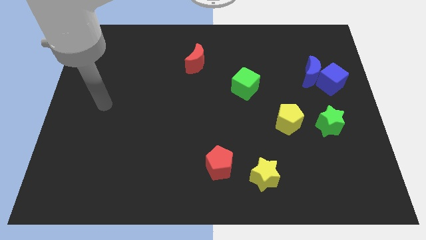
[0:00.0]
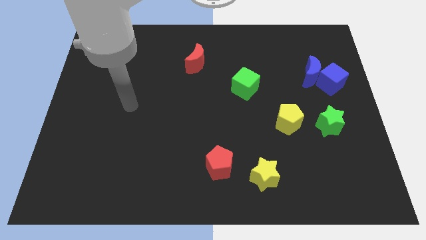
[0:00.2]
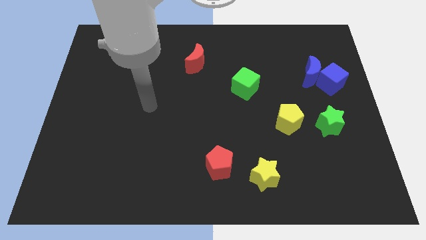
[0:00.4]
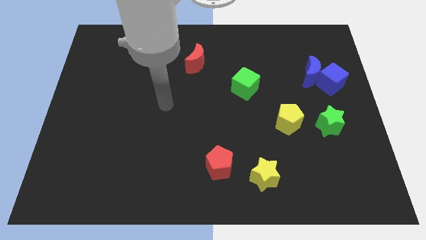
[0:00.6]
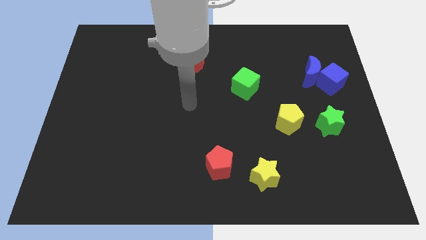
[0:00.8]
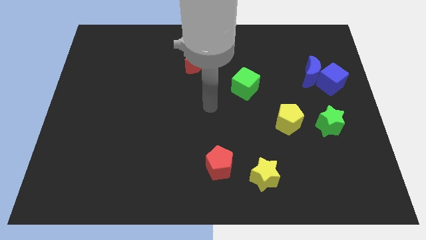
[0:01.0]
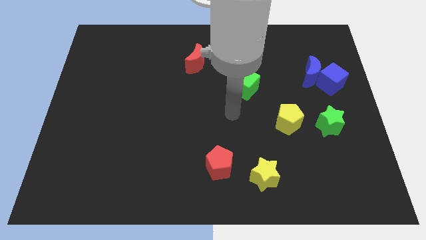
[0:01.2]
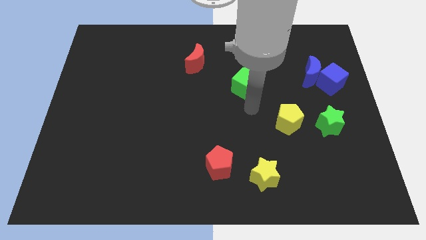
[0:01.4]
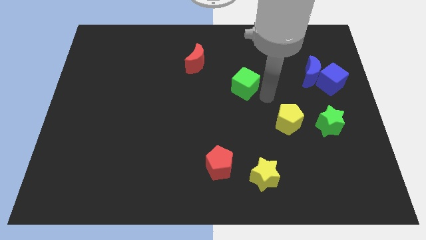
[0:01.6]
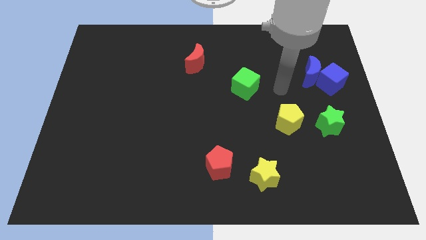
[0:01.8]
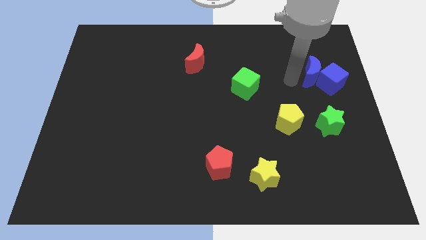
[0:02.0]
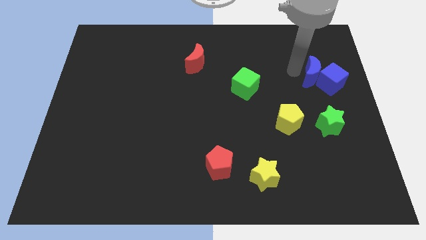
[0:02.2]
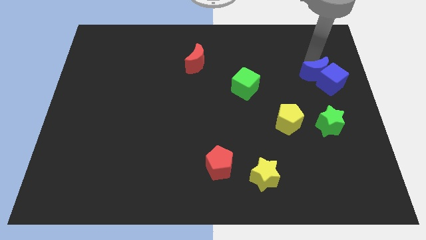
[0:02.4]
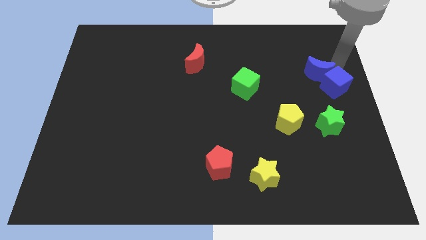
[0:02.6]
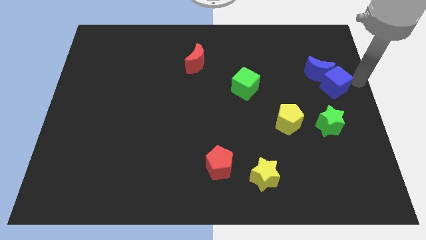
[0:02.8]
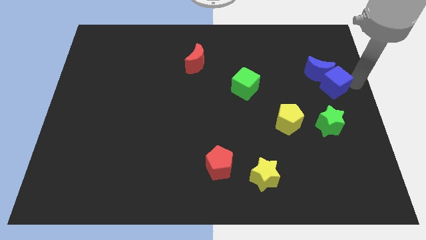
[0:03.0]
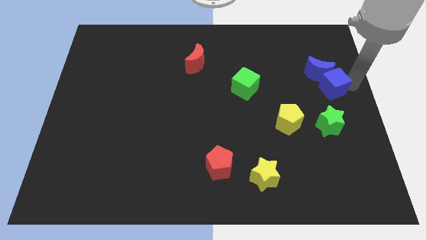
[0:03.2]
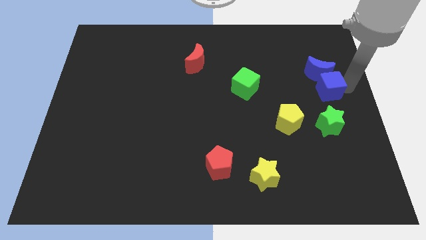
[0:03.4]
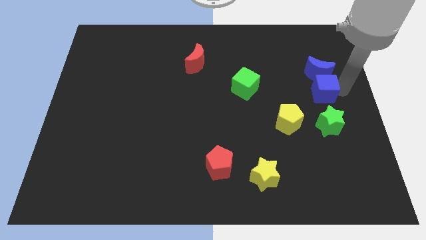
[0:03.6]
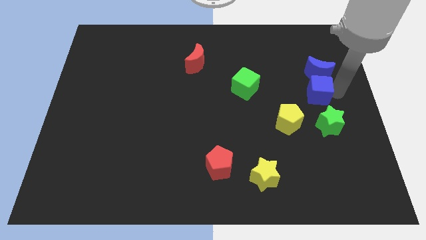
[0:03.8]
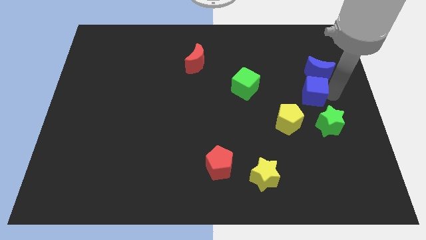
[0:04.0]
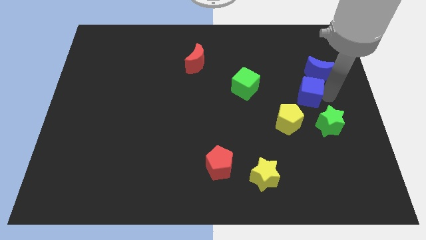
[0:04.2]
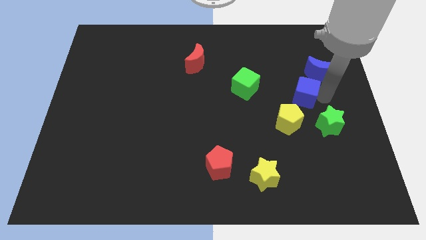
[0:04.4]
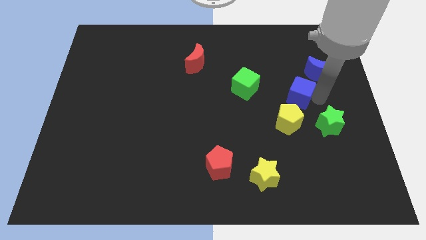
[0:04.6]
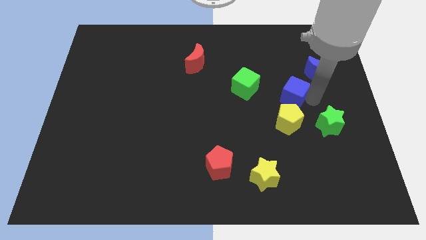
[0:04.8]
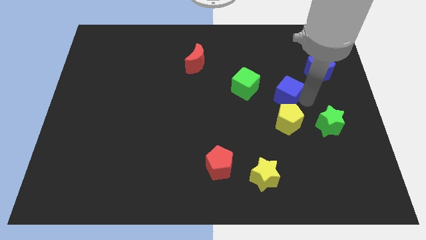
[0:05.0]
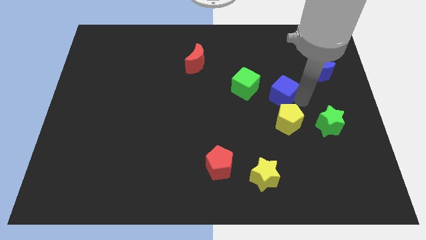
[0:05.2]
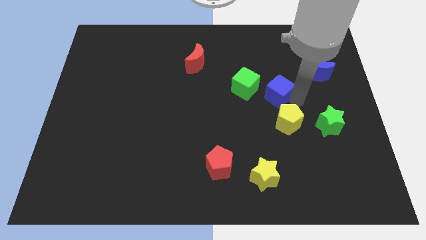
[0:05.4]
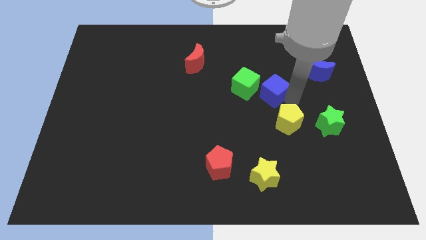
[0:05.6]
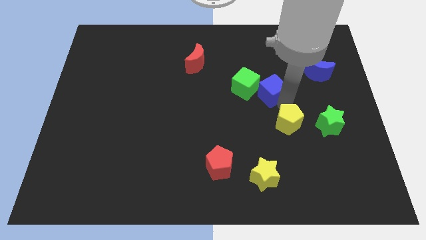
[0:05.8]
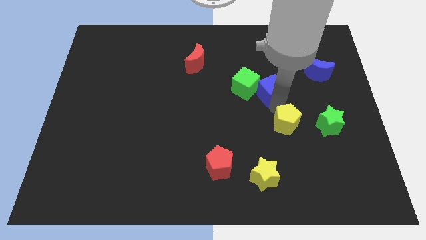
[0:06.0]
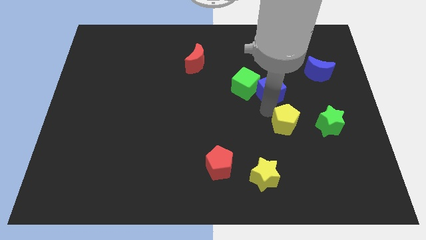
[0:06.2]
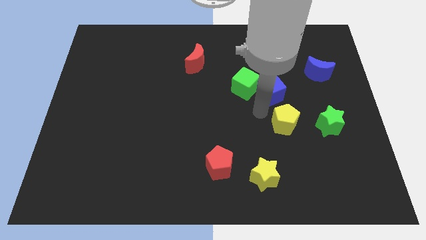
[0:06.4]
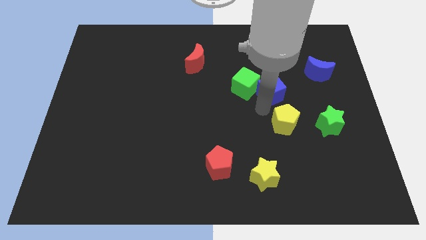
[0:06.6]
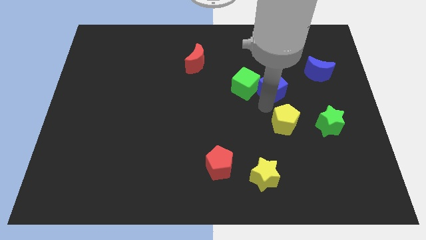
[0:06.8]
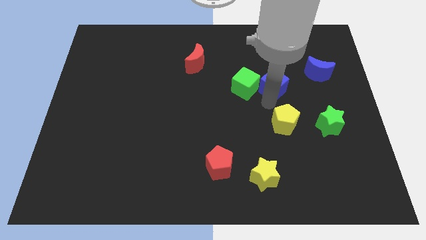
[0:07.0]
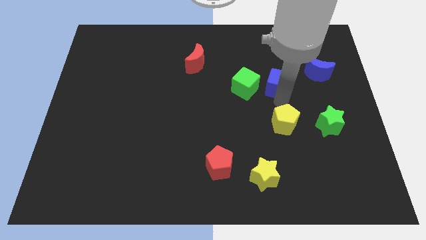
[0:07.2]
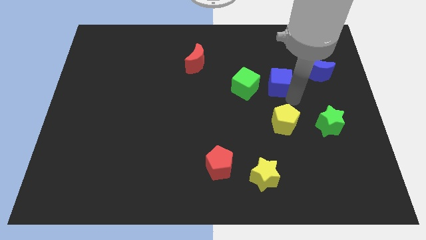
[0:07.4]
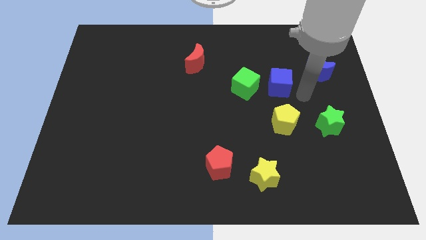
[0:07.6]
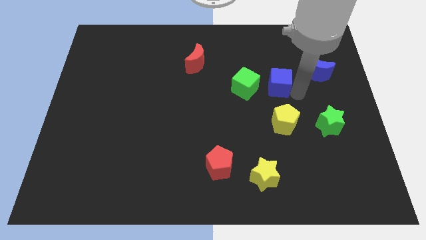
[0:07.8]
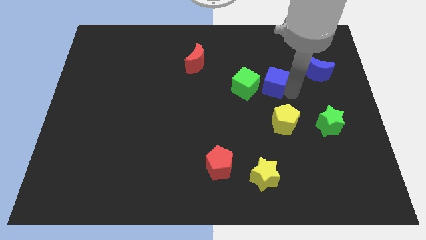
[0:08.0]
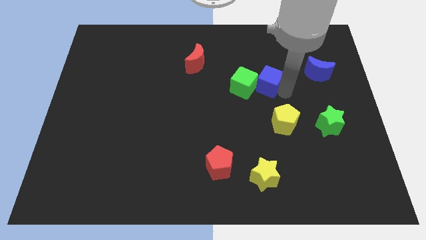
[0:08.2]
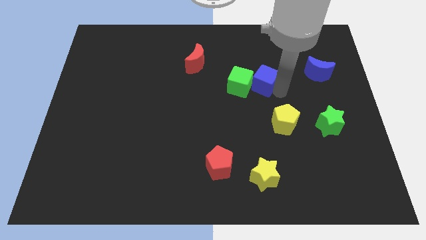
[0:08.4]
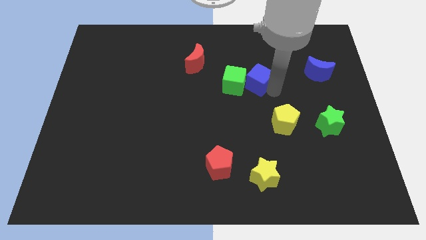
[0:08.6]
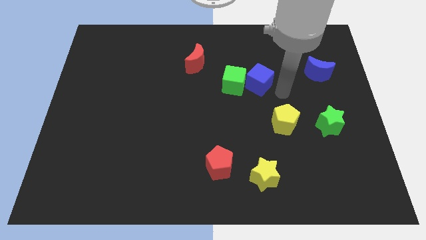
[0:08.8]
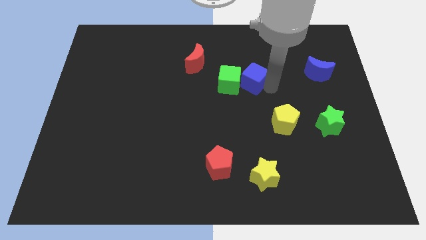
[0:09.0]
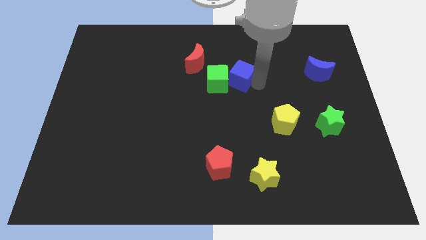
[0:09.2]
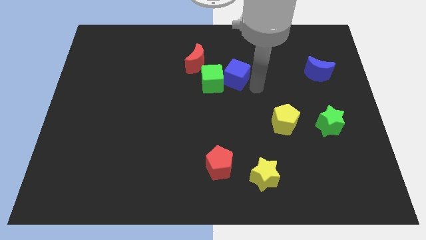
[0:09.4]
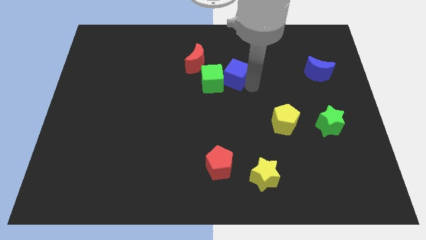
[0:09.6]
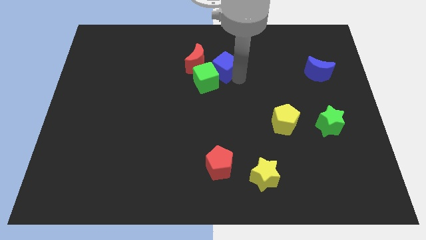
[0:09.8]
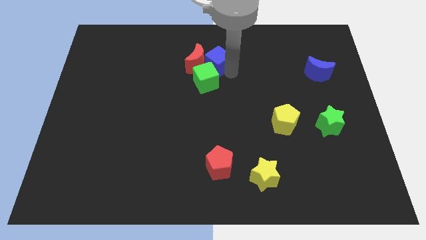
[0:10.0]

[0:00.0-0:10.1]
slide the blue cube close to the red moon

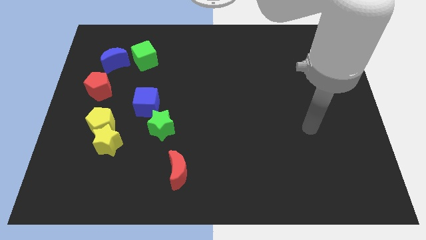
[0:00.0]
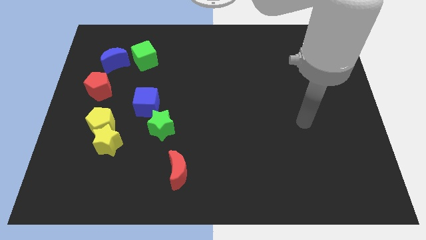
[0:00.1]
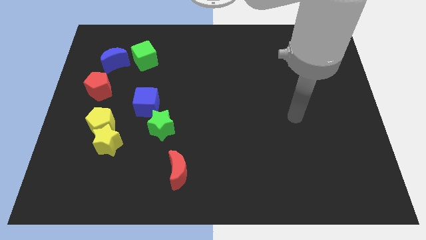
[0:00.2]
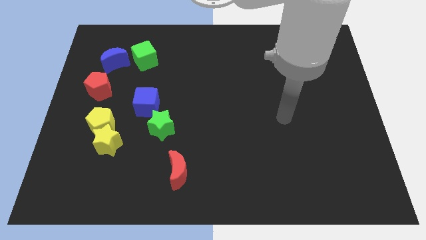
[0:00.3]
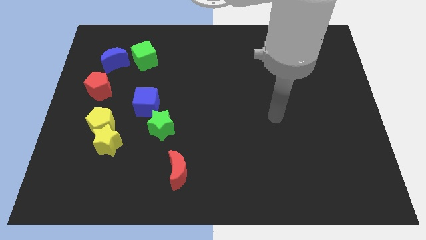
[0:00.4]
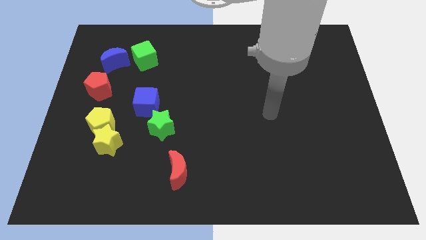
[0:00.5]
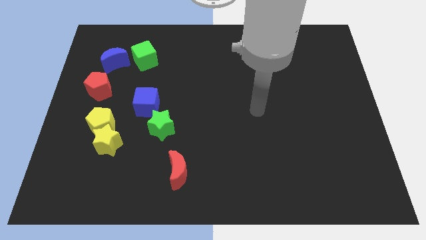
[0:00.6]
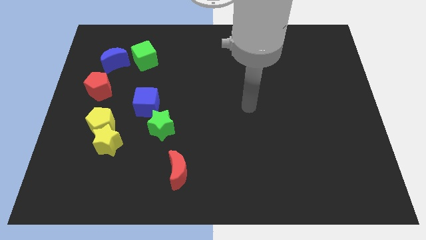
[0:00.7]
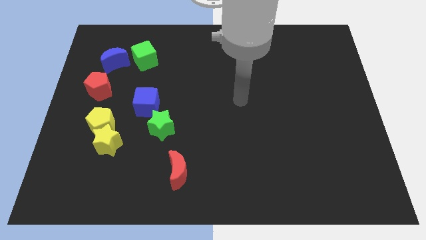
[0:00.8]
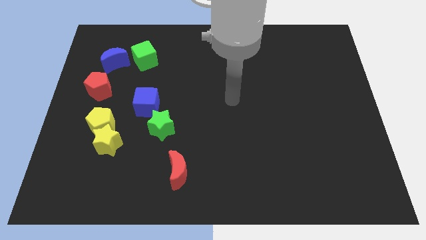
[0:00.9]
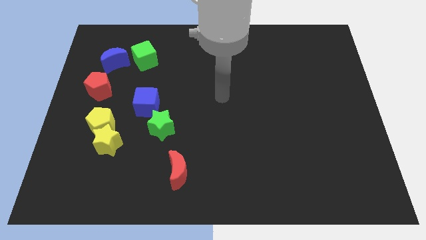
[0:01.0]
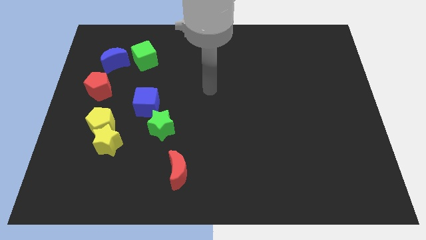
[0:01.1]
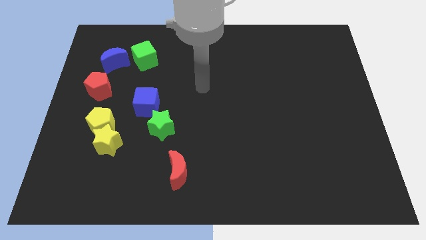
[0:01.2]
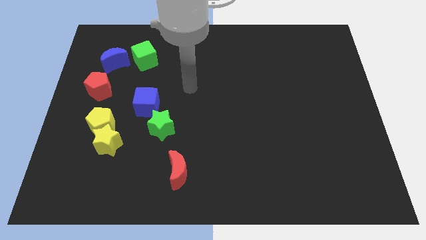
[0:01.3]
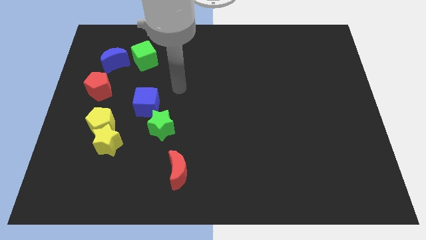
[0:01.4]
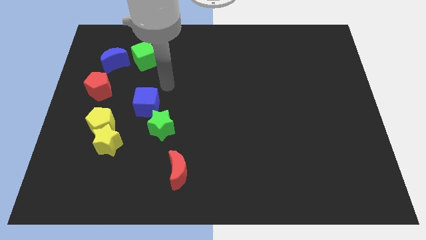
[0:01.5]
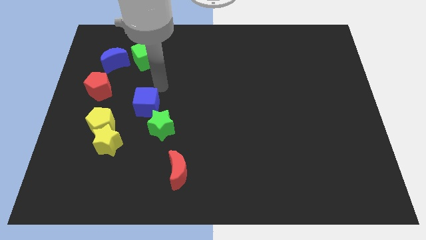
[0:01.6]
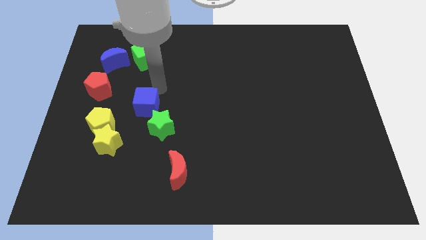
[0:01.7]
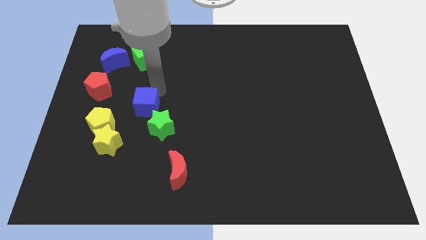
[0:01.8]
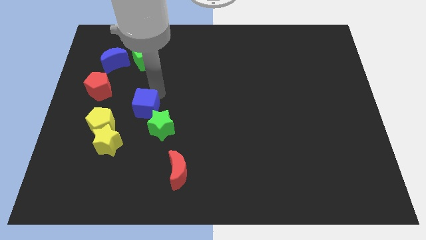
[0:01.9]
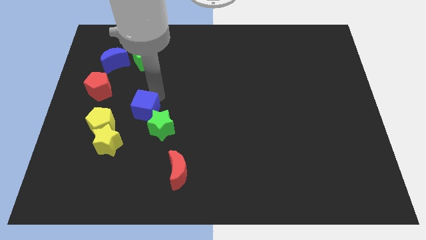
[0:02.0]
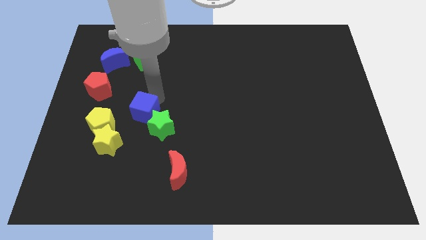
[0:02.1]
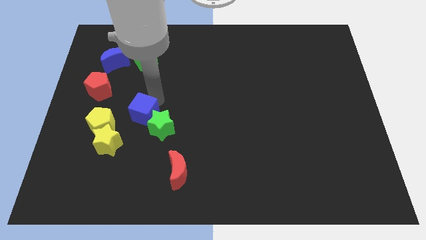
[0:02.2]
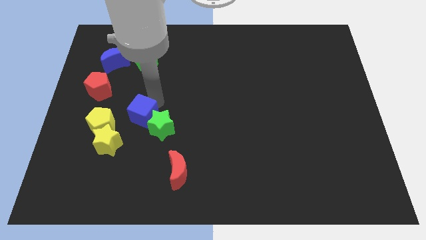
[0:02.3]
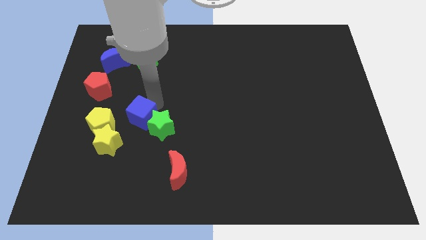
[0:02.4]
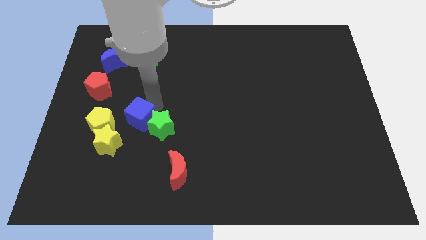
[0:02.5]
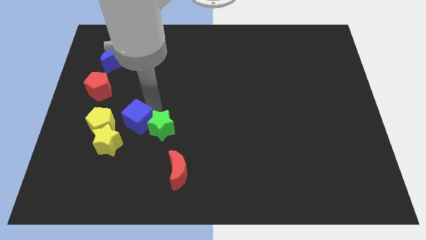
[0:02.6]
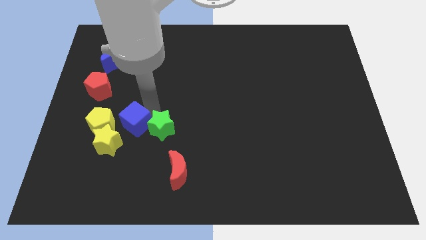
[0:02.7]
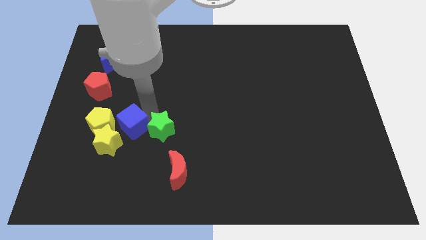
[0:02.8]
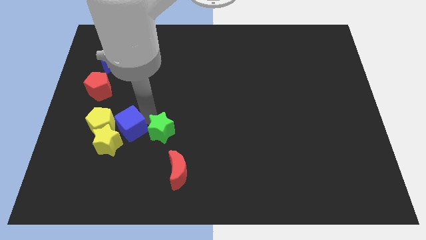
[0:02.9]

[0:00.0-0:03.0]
push the blue cube next to the yellow star

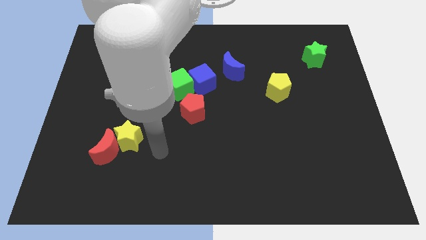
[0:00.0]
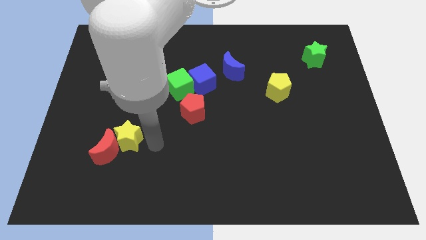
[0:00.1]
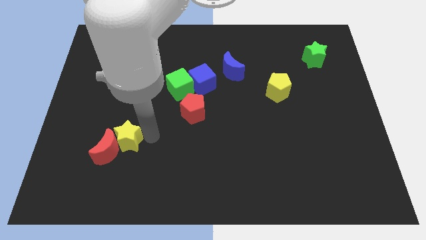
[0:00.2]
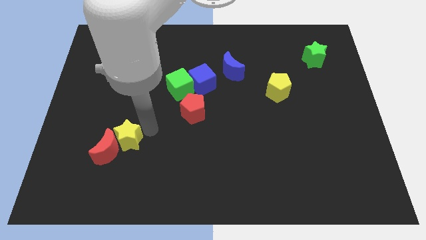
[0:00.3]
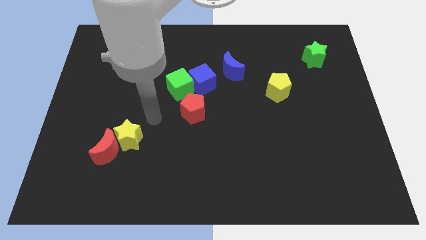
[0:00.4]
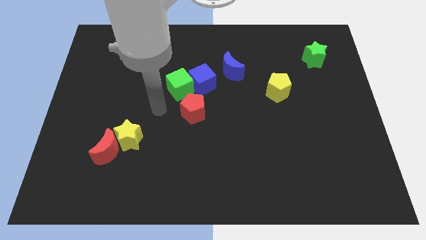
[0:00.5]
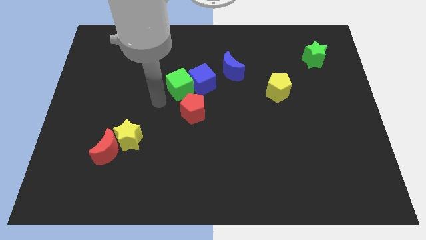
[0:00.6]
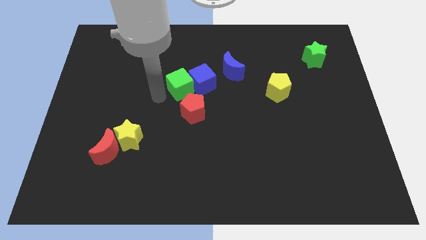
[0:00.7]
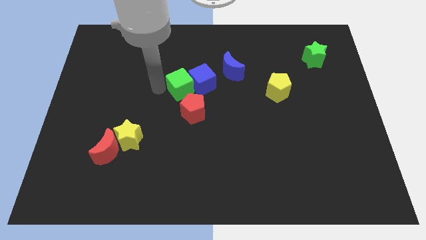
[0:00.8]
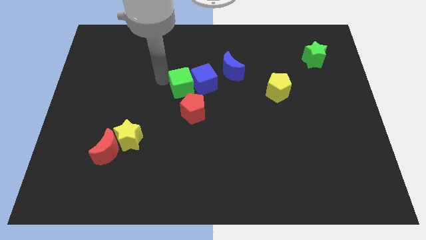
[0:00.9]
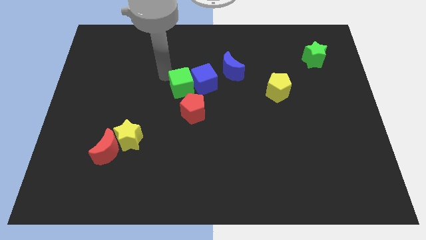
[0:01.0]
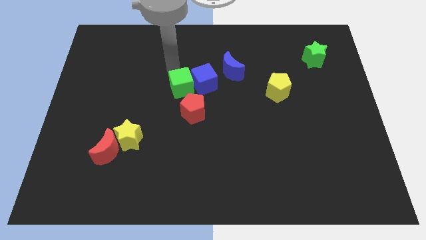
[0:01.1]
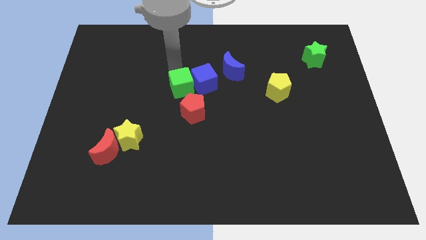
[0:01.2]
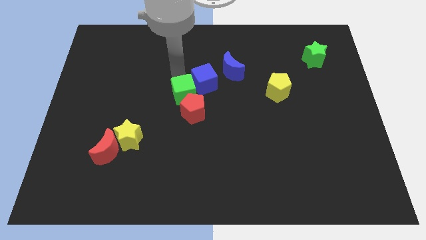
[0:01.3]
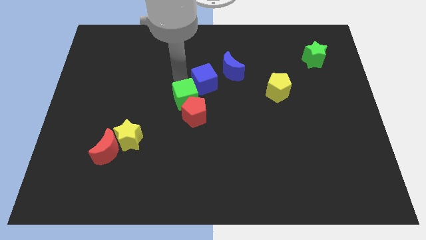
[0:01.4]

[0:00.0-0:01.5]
put the green cube towards the red pentagon
